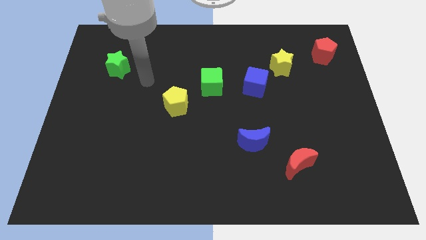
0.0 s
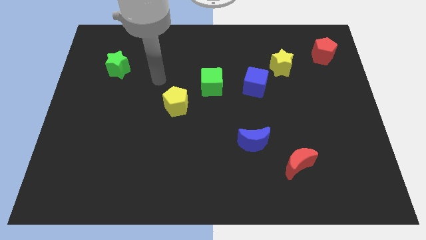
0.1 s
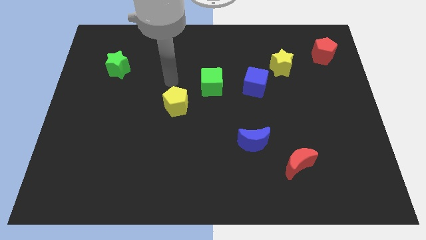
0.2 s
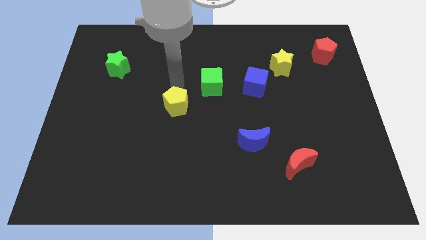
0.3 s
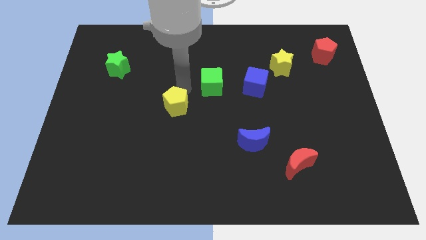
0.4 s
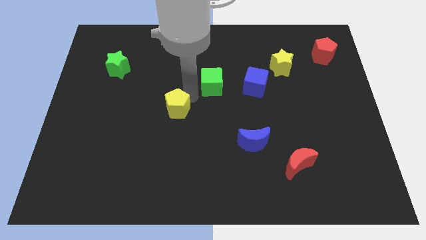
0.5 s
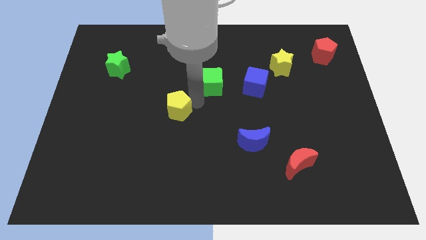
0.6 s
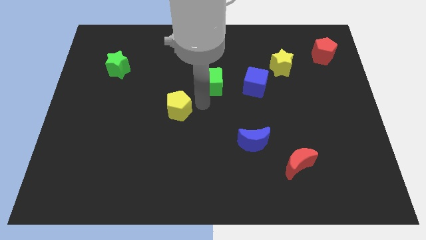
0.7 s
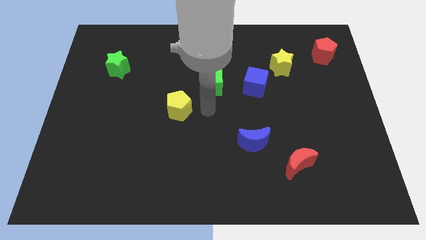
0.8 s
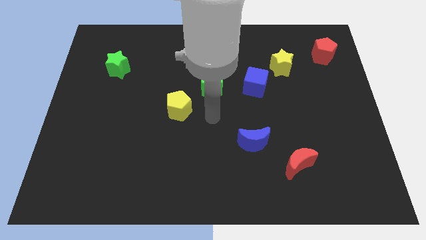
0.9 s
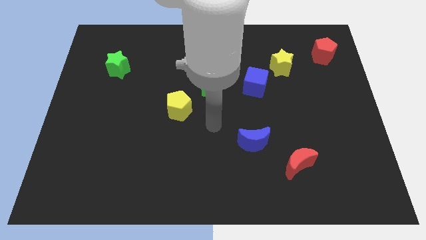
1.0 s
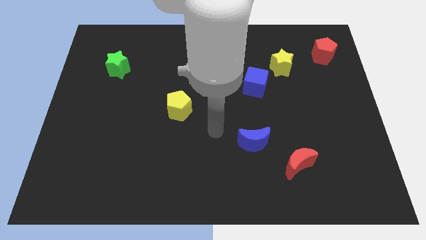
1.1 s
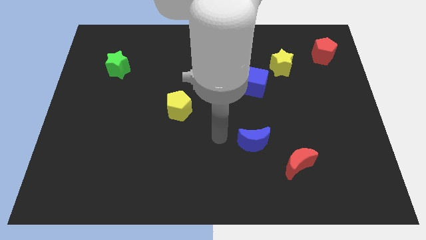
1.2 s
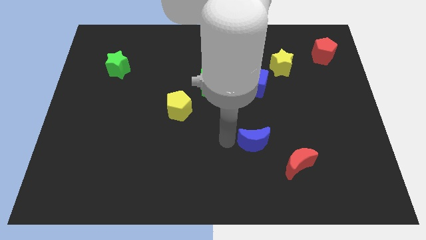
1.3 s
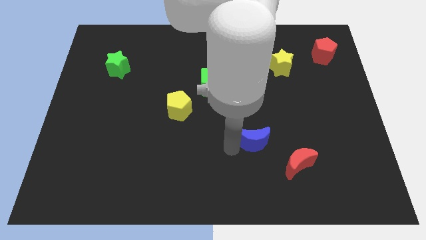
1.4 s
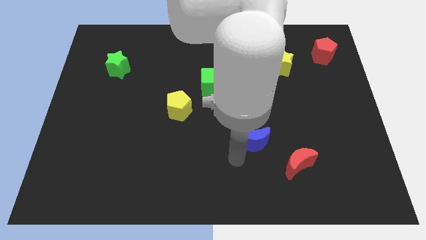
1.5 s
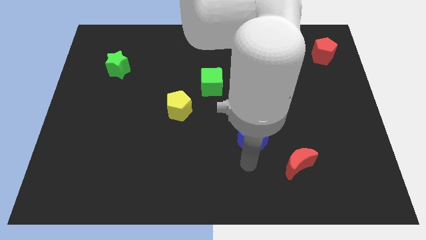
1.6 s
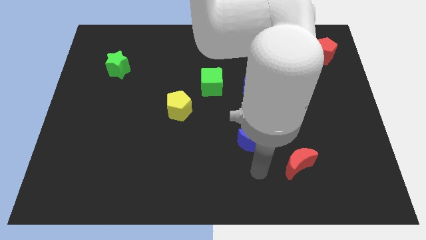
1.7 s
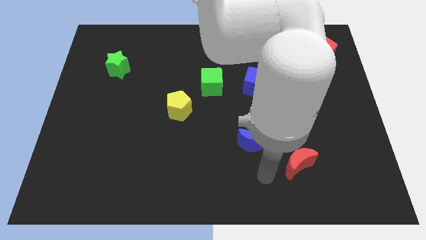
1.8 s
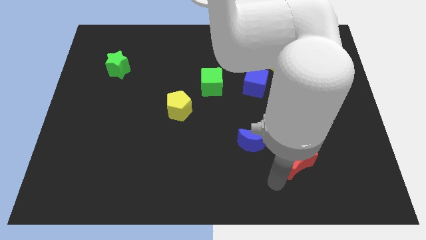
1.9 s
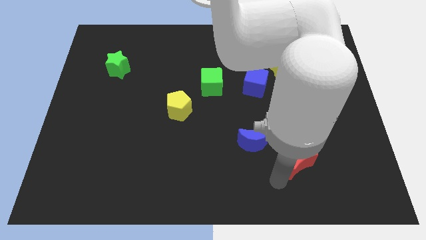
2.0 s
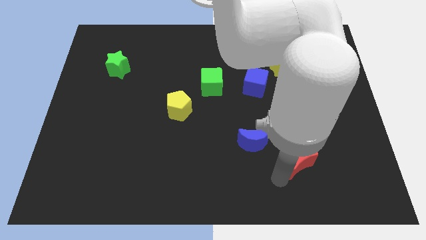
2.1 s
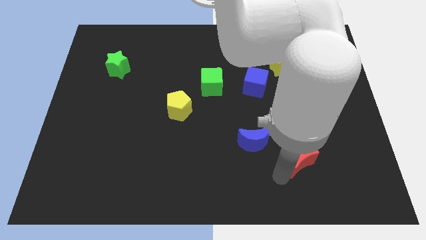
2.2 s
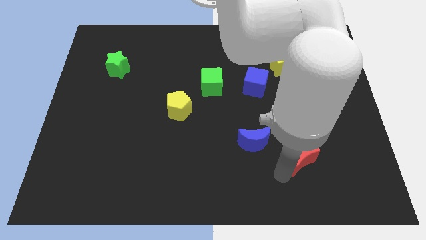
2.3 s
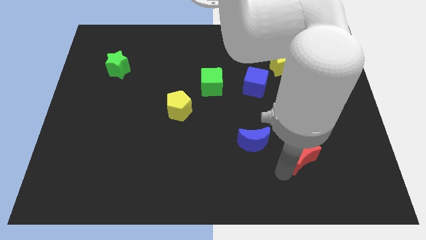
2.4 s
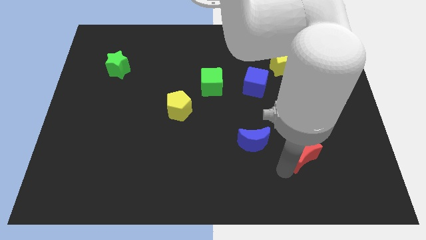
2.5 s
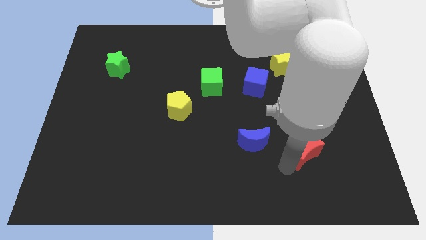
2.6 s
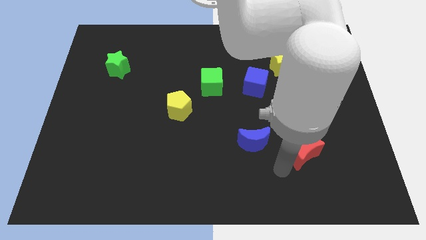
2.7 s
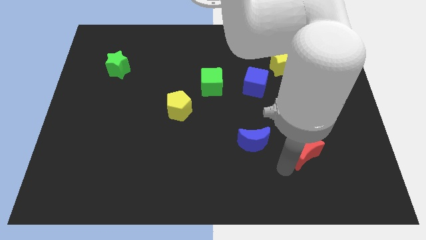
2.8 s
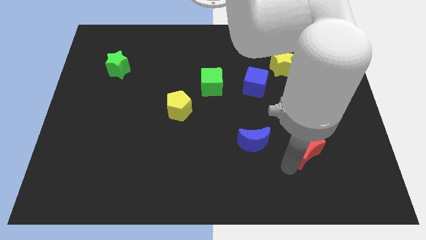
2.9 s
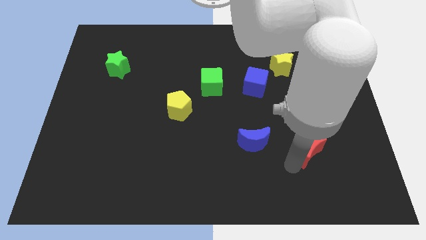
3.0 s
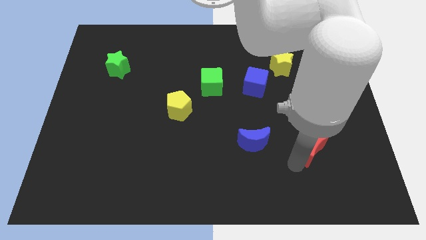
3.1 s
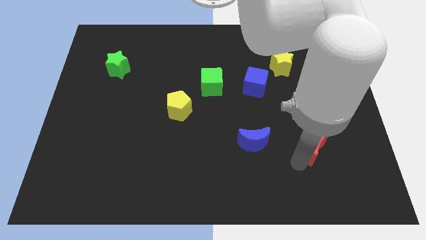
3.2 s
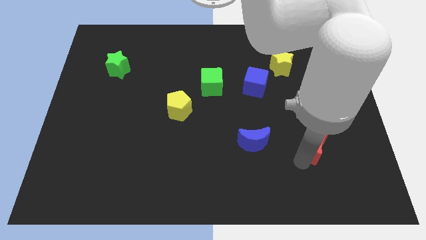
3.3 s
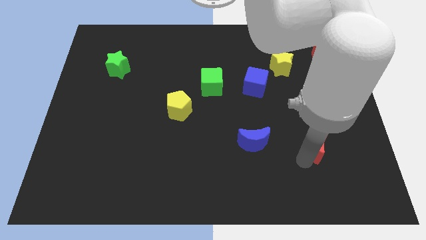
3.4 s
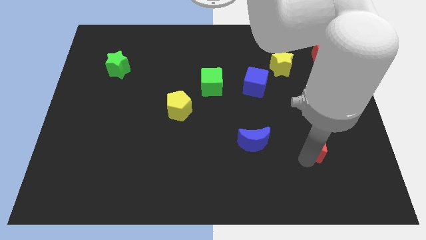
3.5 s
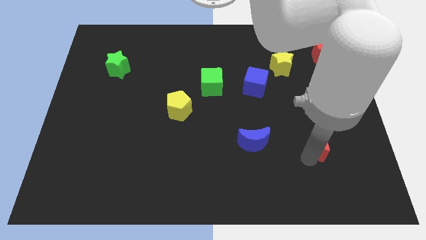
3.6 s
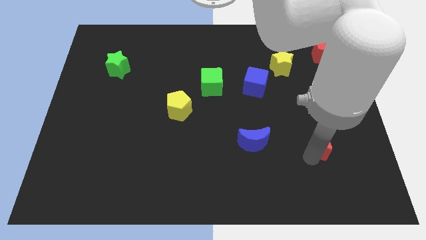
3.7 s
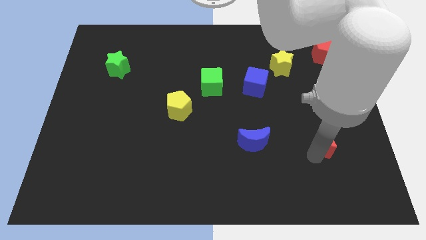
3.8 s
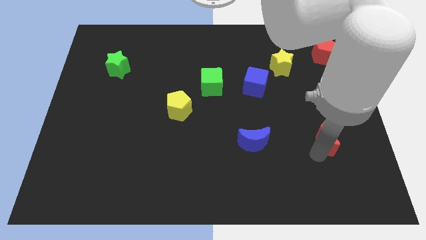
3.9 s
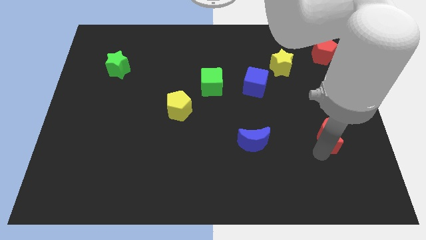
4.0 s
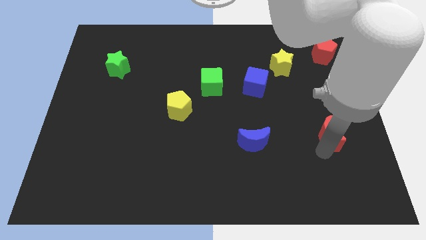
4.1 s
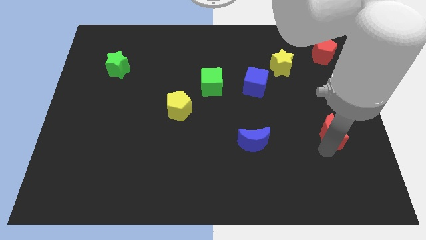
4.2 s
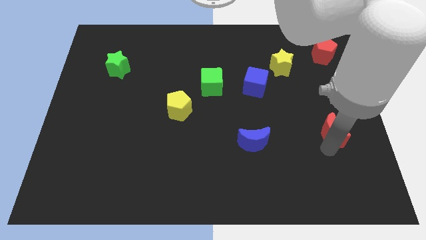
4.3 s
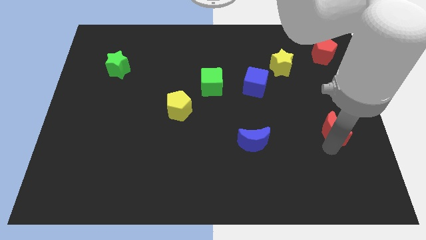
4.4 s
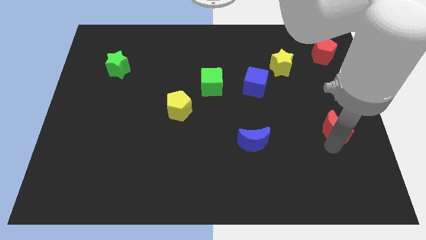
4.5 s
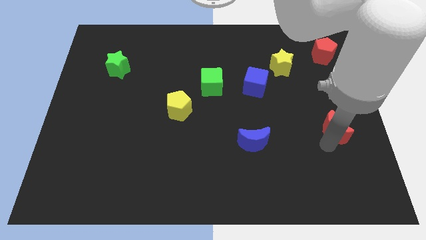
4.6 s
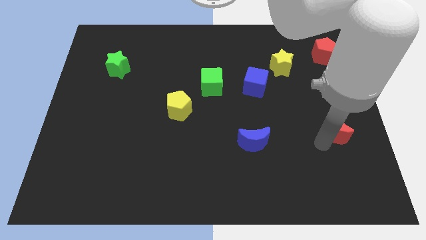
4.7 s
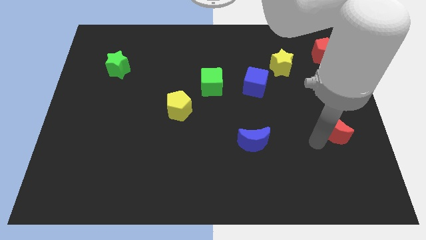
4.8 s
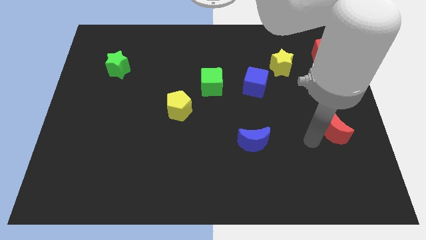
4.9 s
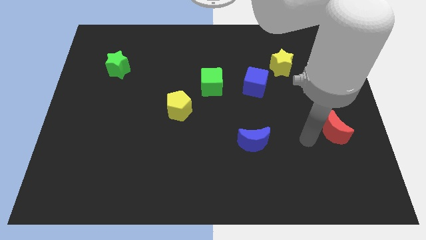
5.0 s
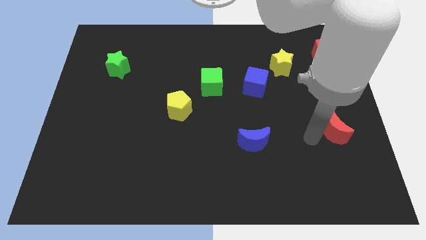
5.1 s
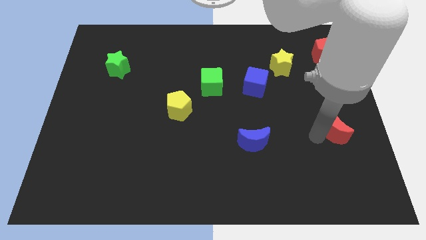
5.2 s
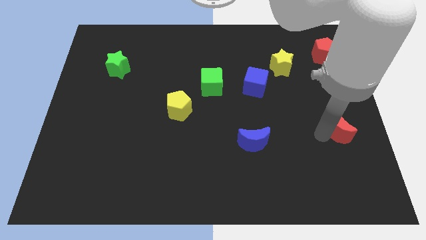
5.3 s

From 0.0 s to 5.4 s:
move the red moon to the right side
